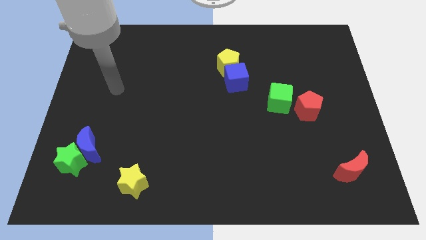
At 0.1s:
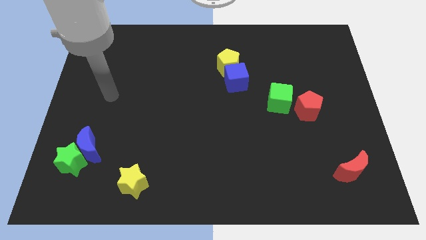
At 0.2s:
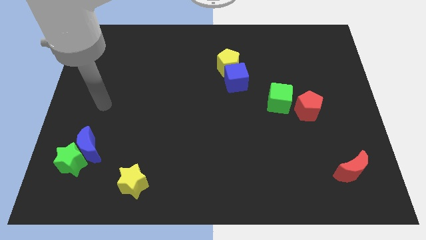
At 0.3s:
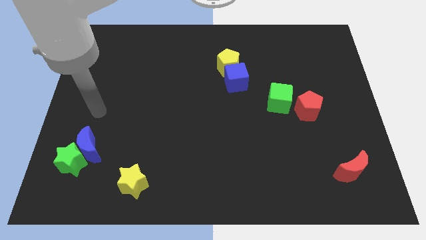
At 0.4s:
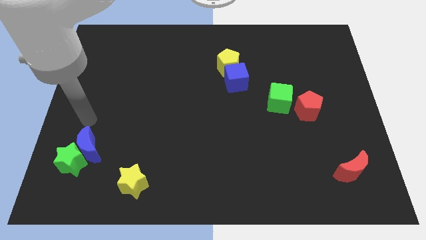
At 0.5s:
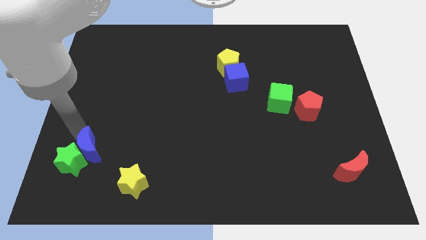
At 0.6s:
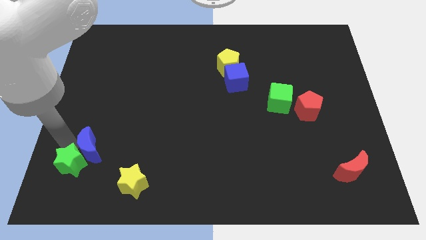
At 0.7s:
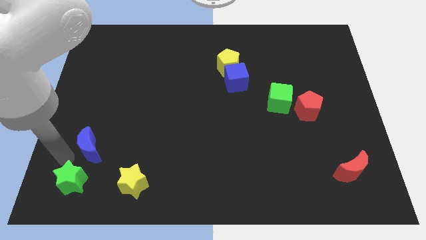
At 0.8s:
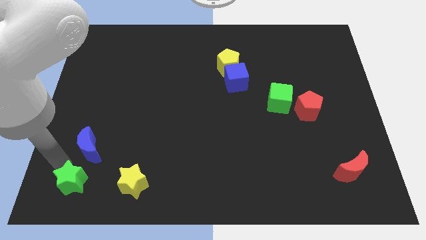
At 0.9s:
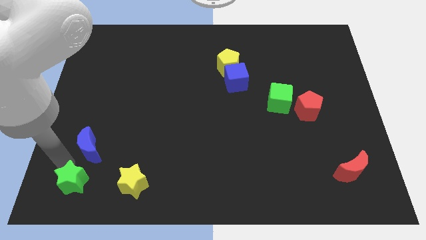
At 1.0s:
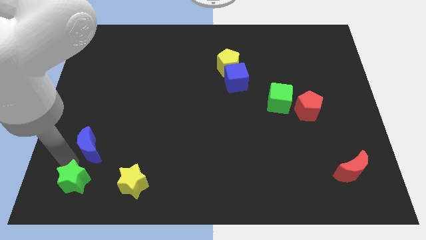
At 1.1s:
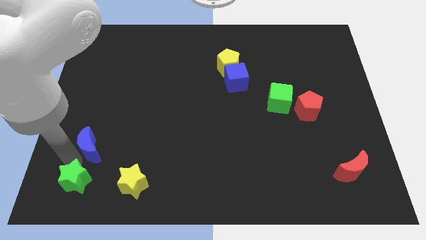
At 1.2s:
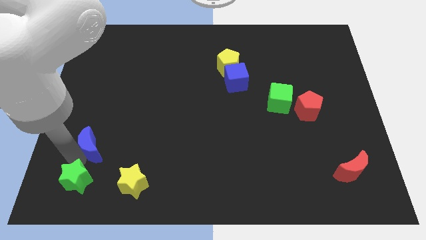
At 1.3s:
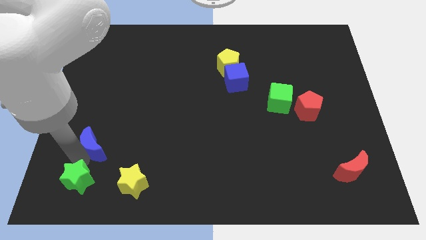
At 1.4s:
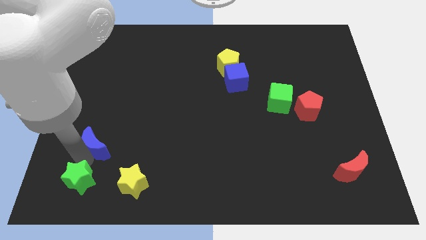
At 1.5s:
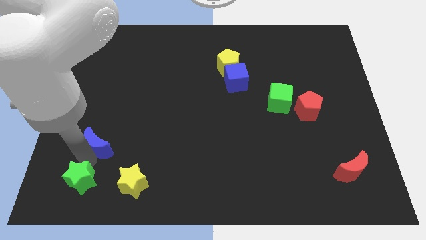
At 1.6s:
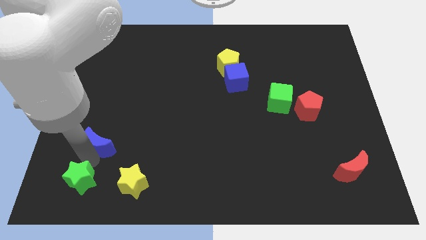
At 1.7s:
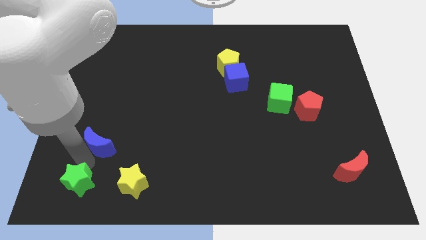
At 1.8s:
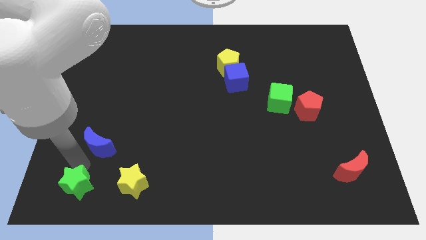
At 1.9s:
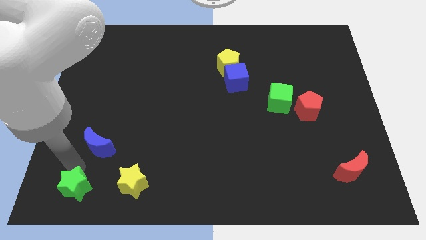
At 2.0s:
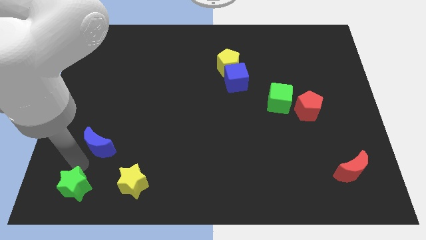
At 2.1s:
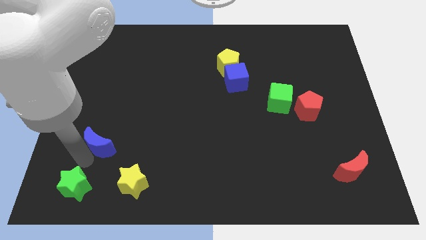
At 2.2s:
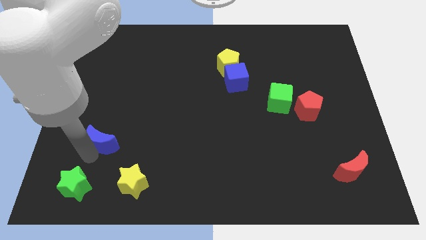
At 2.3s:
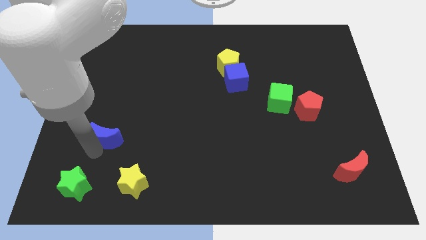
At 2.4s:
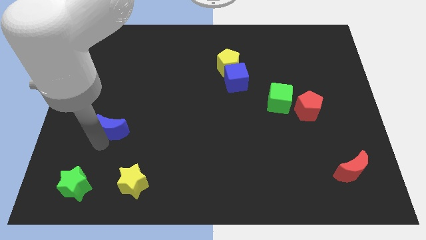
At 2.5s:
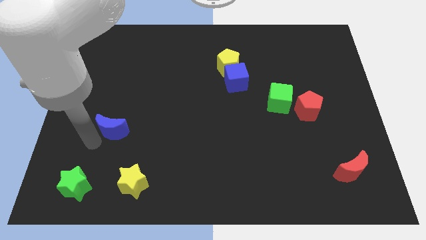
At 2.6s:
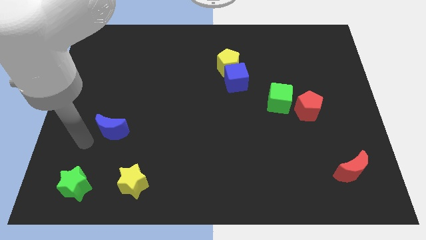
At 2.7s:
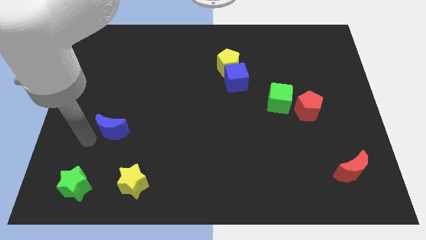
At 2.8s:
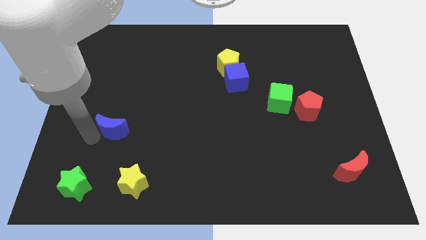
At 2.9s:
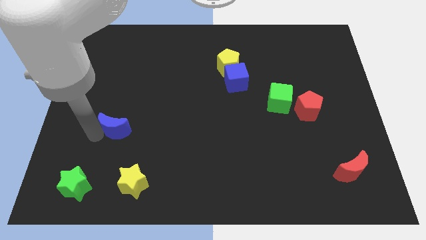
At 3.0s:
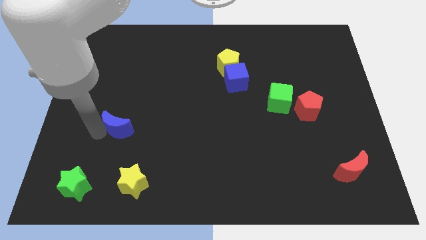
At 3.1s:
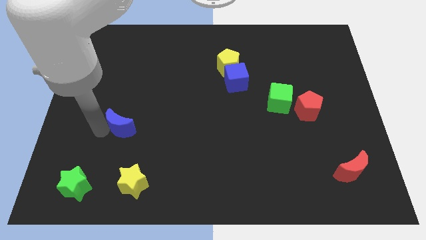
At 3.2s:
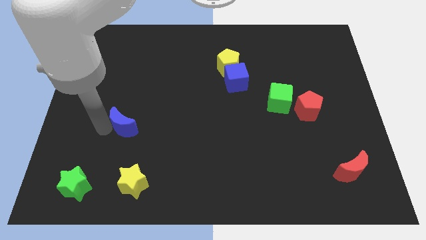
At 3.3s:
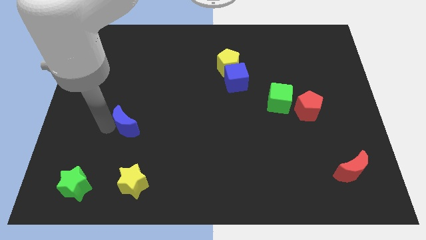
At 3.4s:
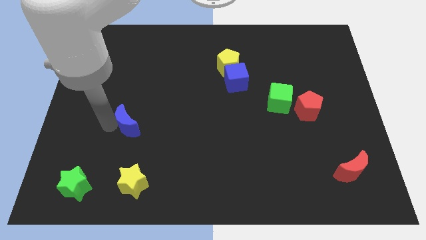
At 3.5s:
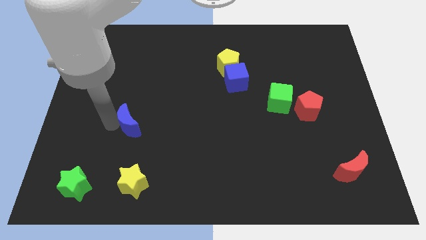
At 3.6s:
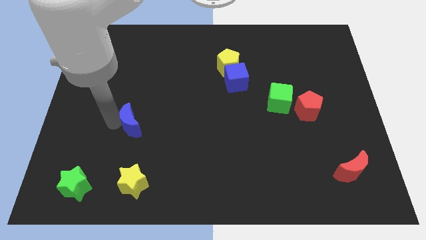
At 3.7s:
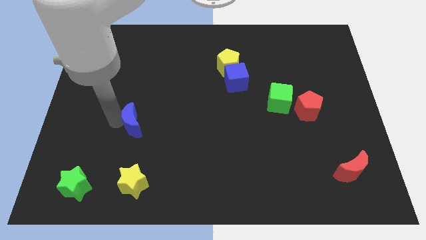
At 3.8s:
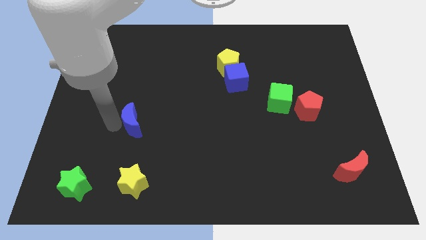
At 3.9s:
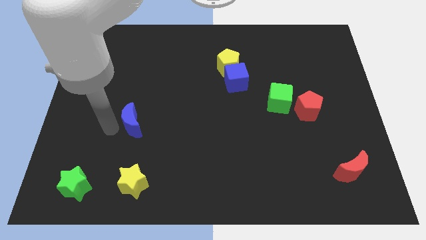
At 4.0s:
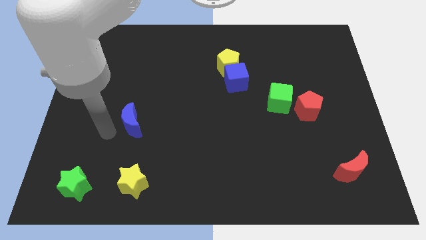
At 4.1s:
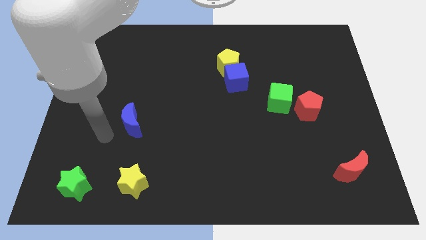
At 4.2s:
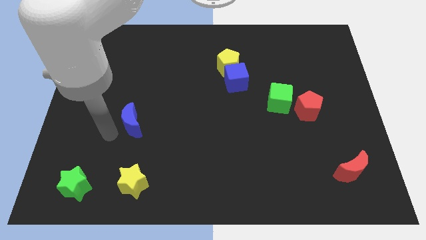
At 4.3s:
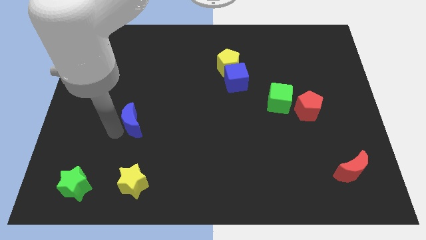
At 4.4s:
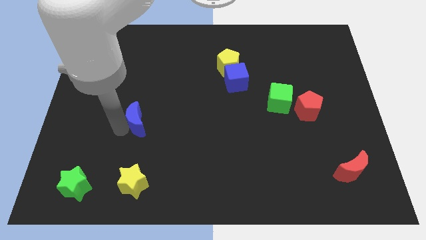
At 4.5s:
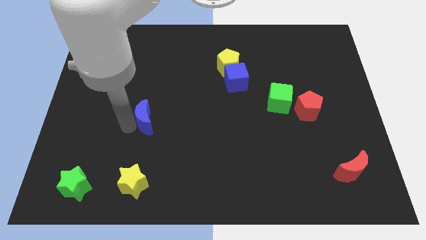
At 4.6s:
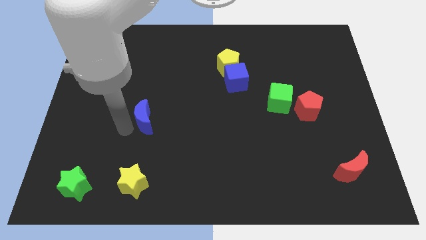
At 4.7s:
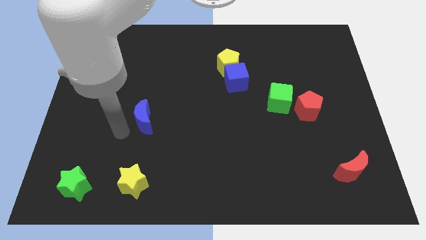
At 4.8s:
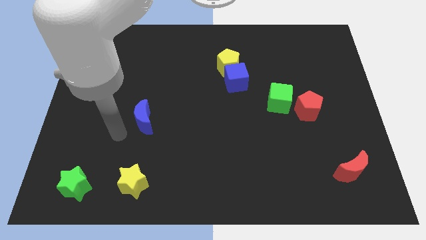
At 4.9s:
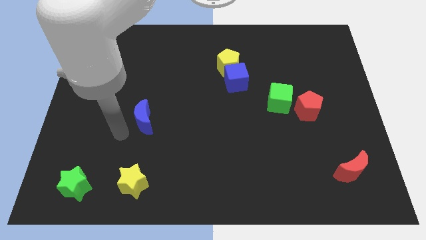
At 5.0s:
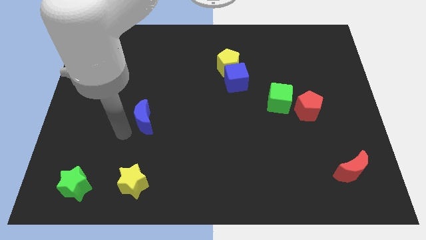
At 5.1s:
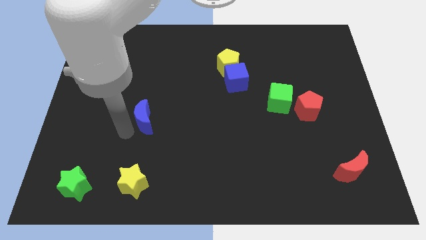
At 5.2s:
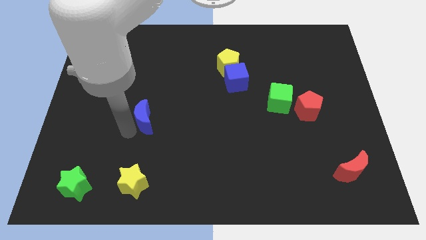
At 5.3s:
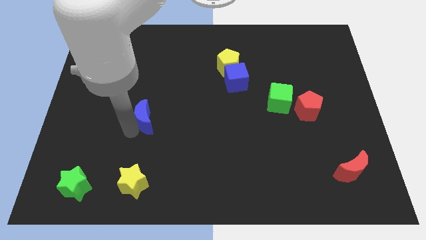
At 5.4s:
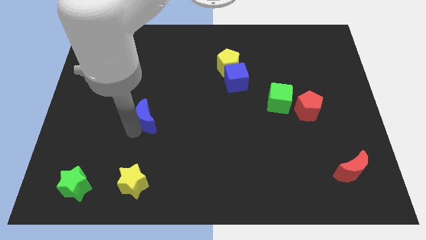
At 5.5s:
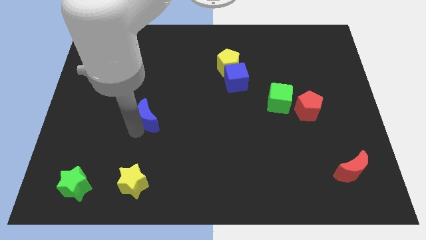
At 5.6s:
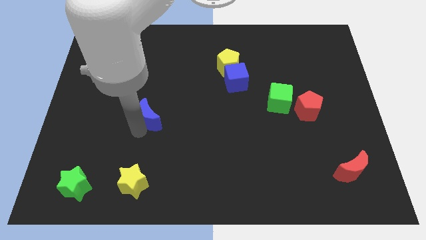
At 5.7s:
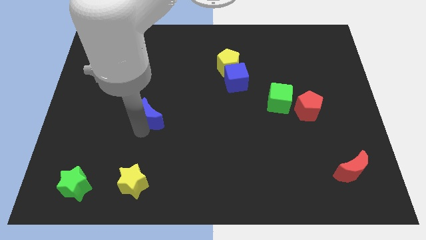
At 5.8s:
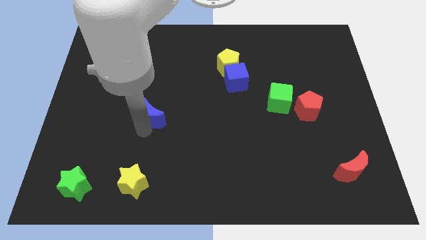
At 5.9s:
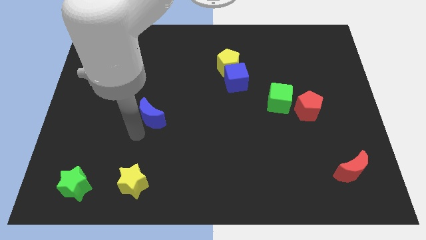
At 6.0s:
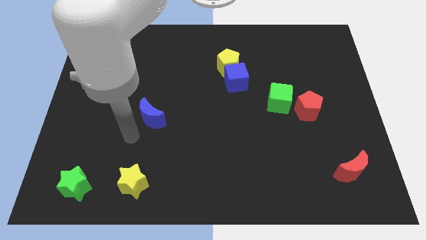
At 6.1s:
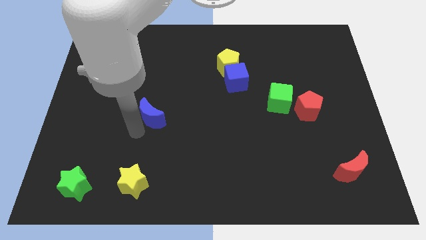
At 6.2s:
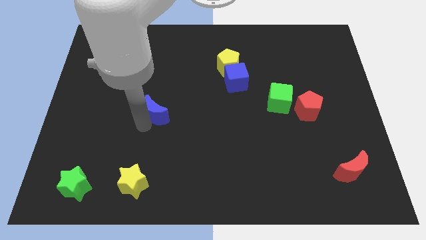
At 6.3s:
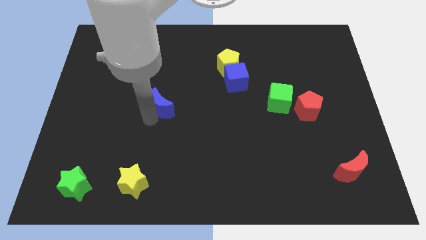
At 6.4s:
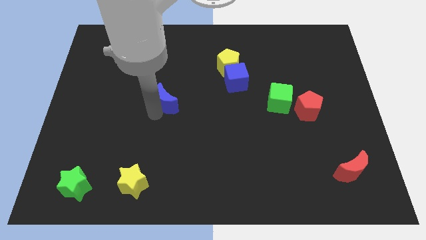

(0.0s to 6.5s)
push the blue moon diagonally up and right

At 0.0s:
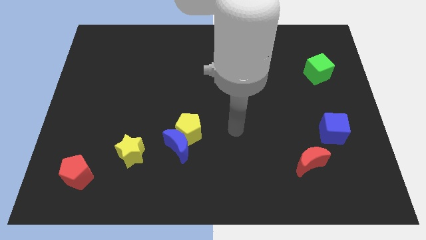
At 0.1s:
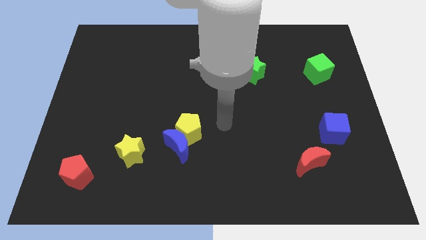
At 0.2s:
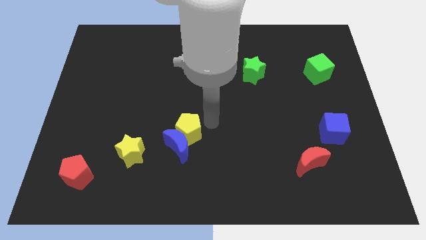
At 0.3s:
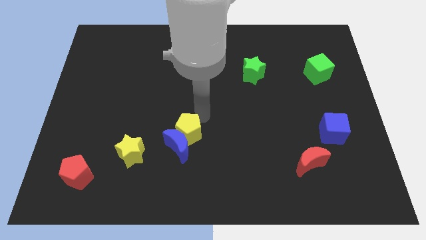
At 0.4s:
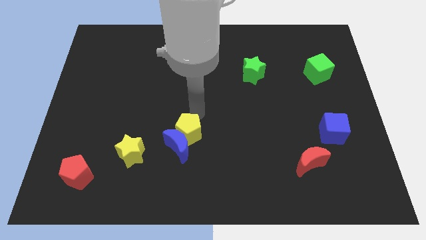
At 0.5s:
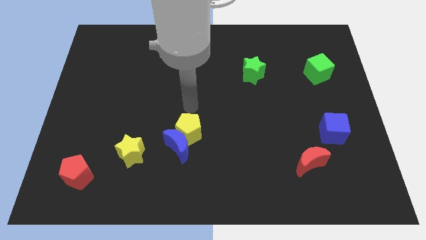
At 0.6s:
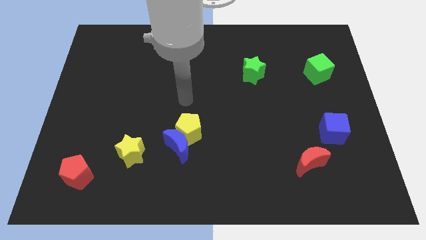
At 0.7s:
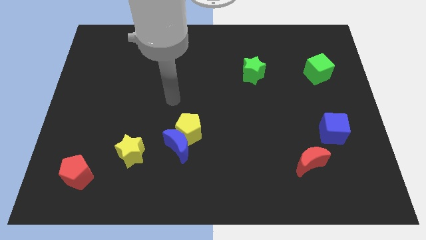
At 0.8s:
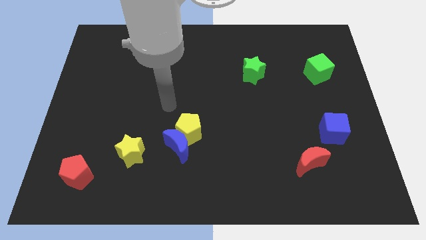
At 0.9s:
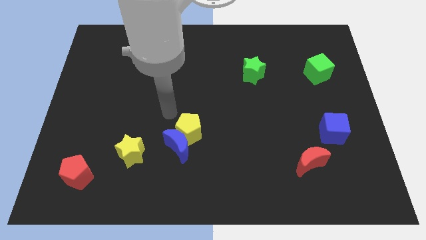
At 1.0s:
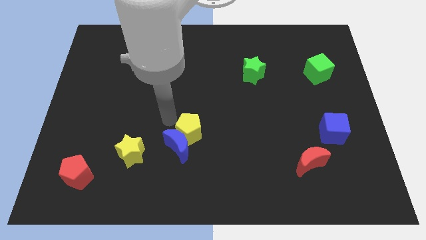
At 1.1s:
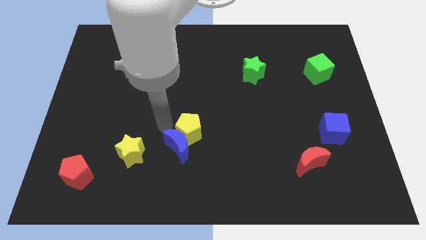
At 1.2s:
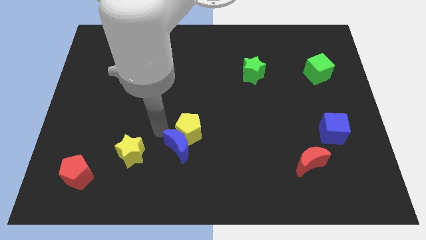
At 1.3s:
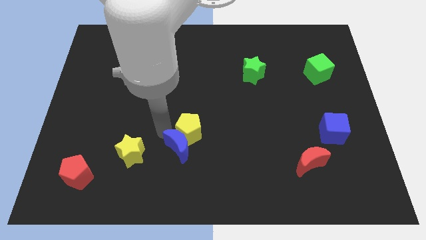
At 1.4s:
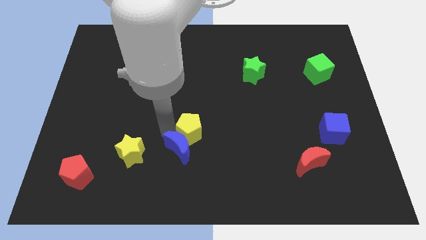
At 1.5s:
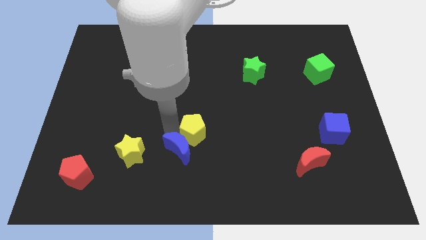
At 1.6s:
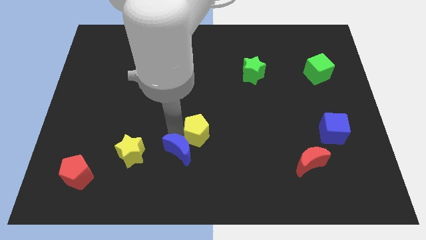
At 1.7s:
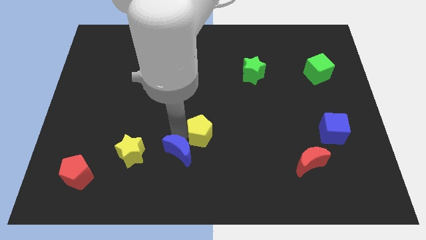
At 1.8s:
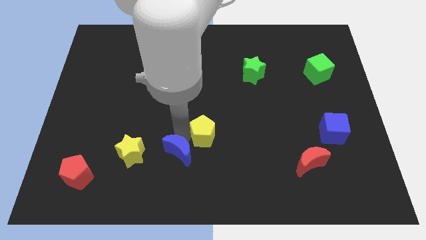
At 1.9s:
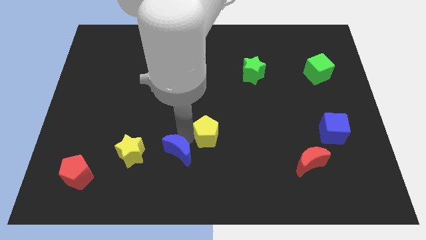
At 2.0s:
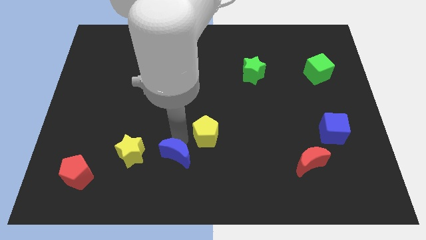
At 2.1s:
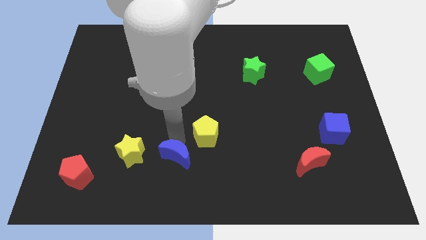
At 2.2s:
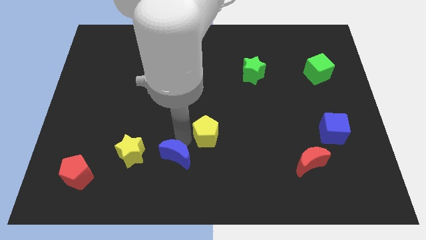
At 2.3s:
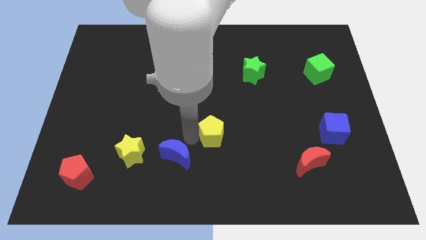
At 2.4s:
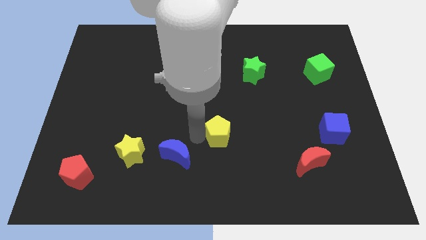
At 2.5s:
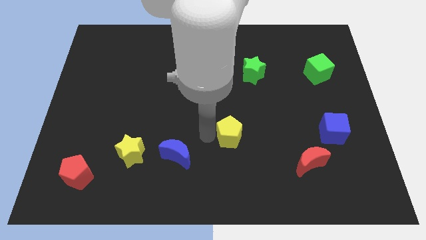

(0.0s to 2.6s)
push the yellow pentagon somewhat right
